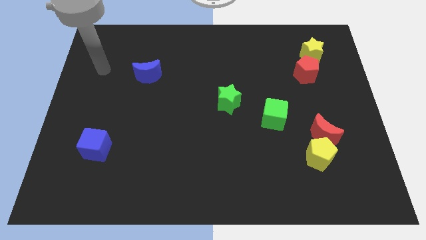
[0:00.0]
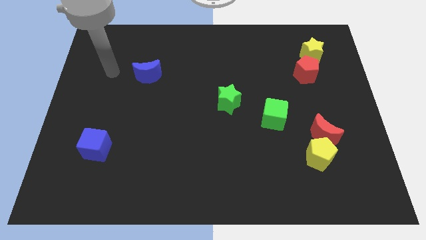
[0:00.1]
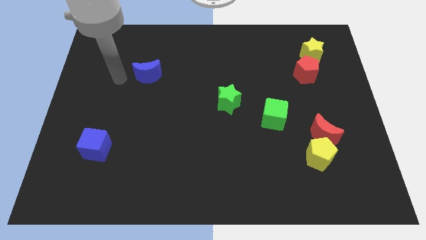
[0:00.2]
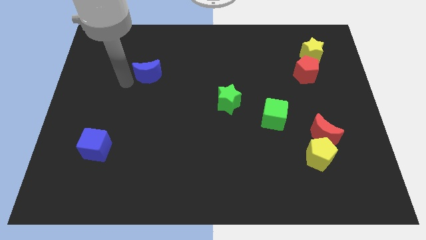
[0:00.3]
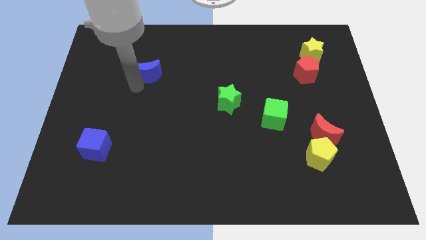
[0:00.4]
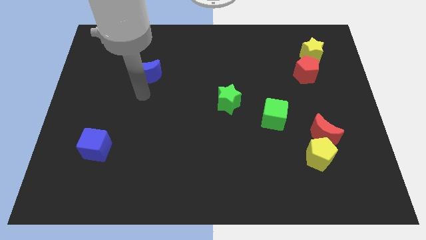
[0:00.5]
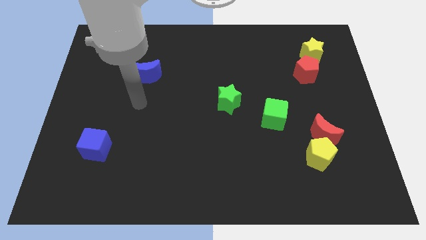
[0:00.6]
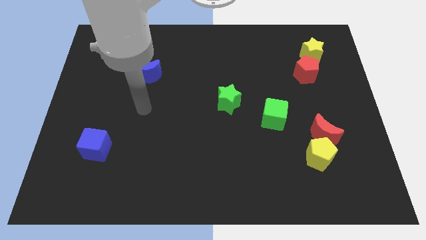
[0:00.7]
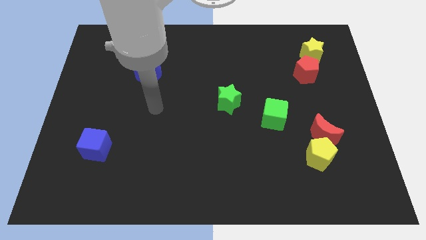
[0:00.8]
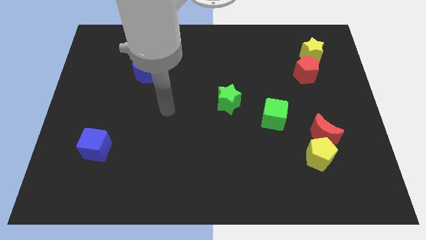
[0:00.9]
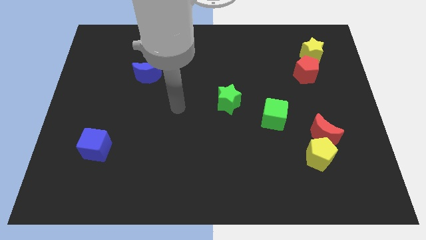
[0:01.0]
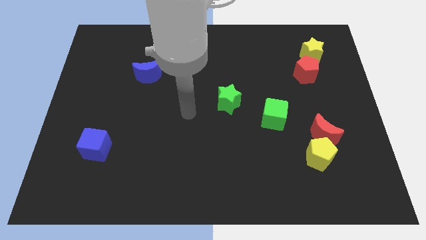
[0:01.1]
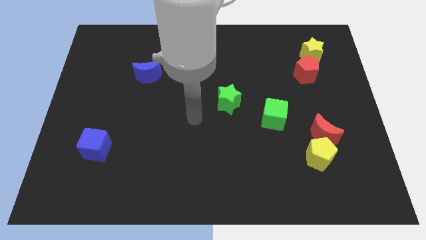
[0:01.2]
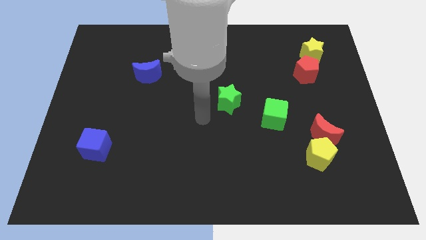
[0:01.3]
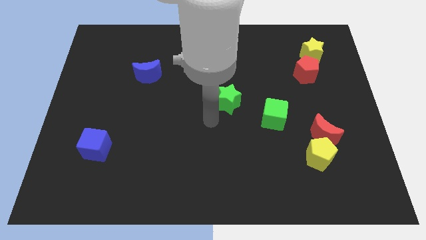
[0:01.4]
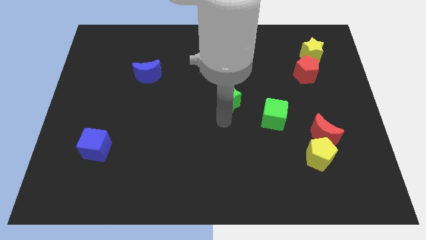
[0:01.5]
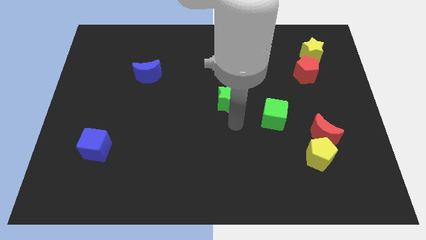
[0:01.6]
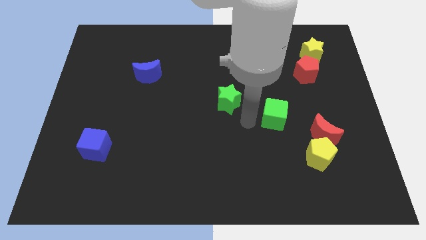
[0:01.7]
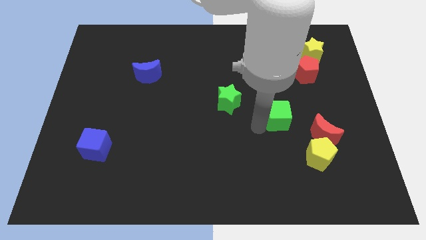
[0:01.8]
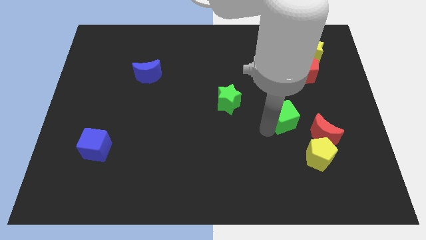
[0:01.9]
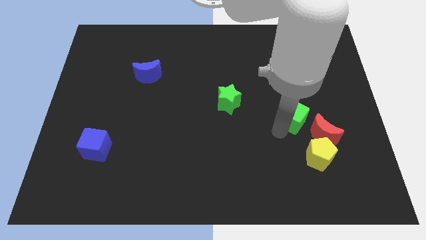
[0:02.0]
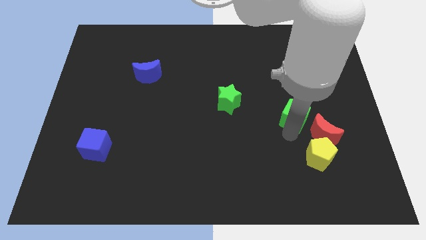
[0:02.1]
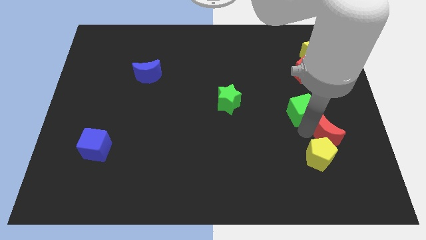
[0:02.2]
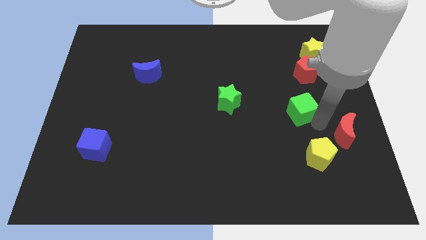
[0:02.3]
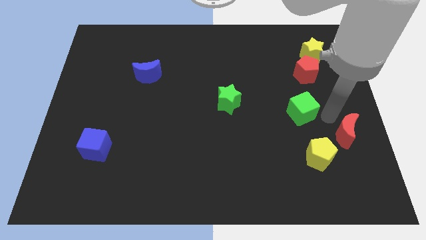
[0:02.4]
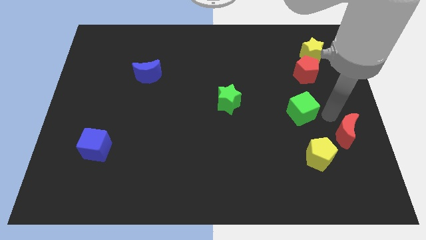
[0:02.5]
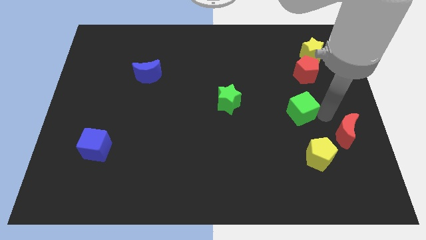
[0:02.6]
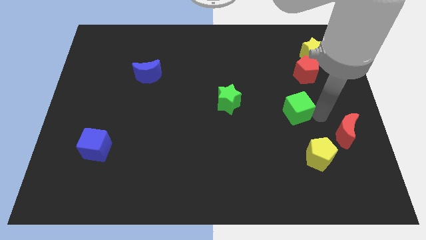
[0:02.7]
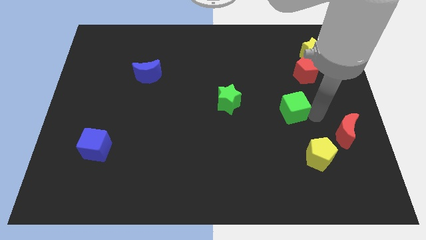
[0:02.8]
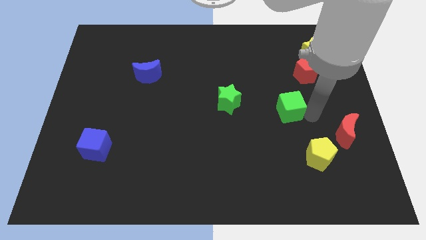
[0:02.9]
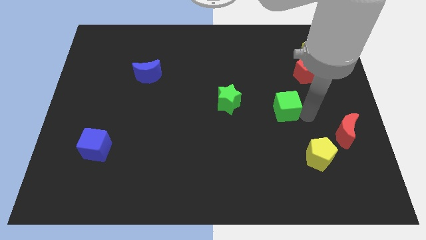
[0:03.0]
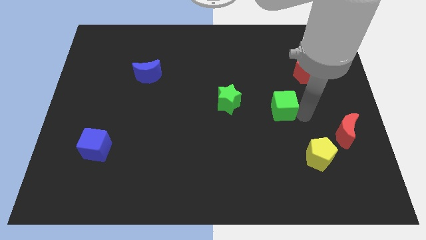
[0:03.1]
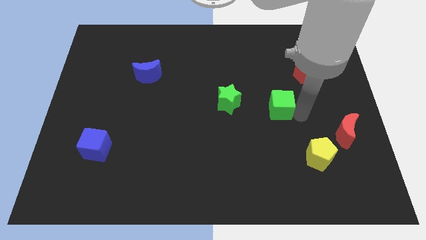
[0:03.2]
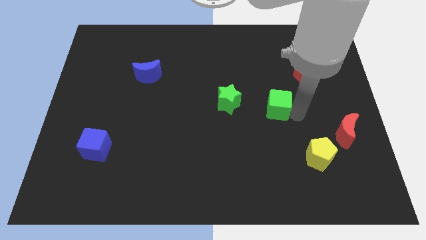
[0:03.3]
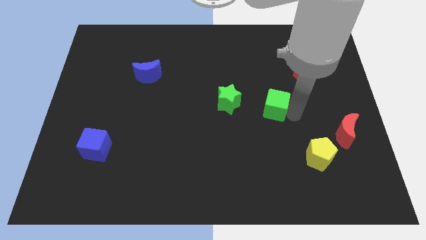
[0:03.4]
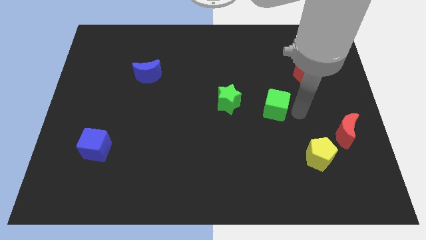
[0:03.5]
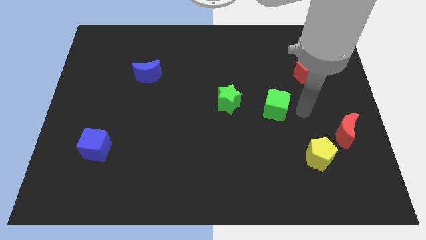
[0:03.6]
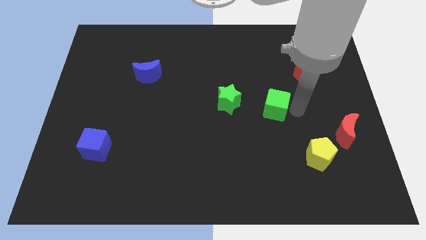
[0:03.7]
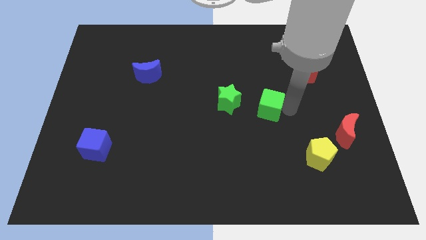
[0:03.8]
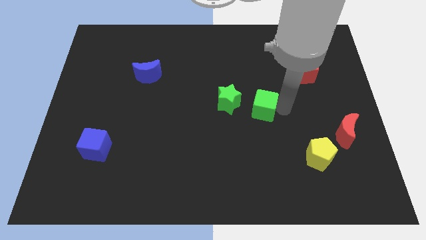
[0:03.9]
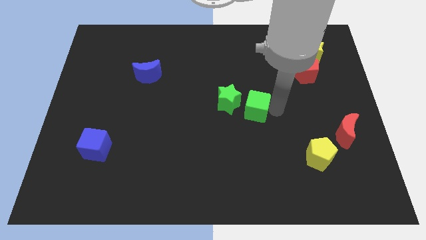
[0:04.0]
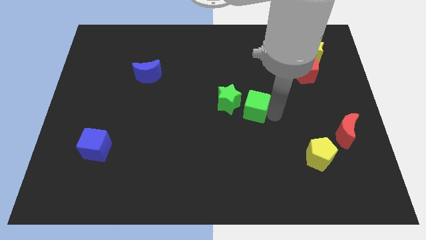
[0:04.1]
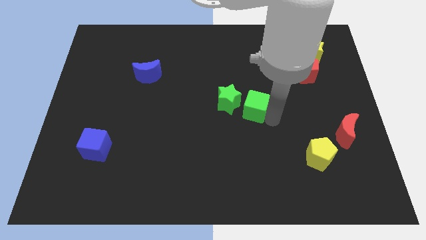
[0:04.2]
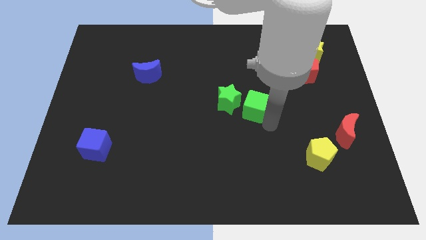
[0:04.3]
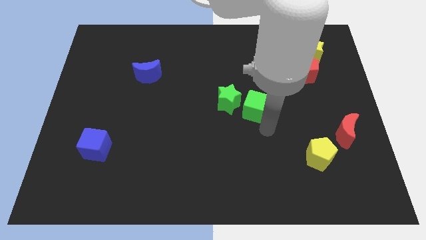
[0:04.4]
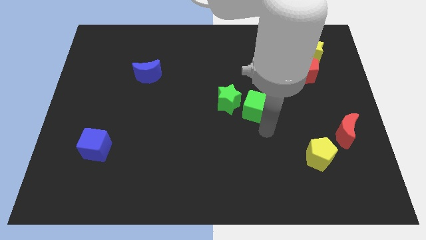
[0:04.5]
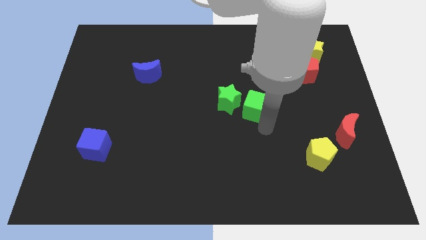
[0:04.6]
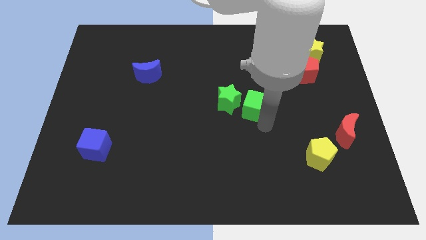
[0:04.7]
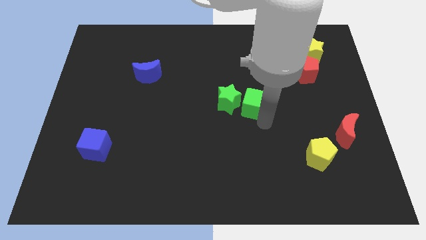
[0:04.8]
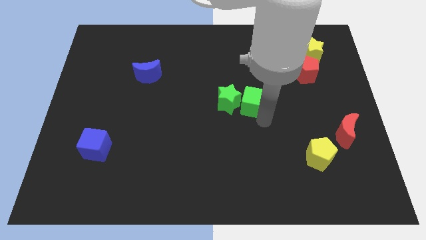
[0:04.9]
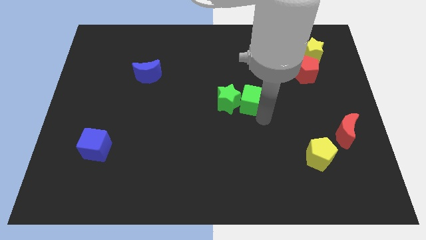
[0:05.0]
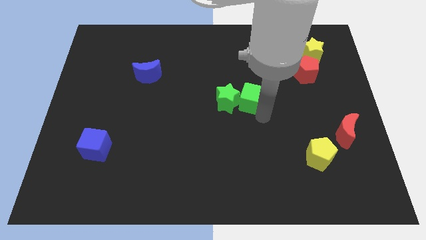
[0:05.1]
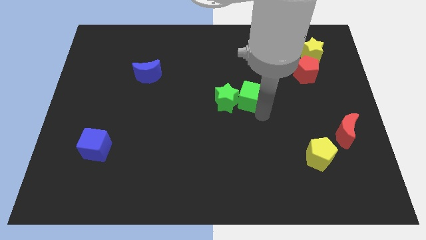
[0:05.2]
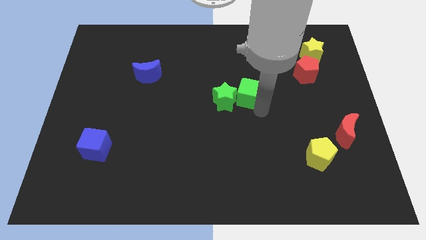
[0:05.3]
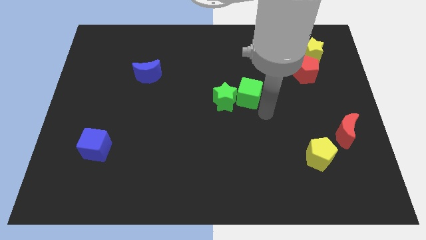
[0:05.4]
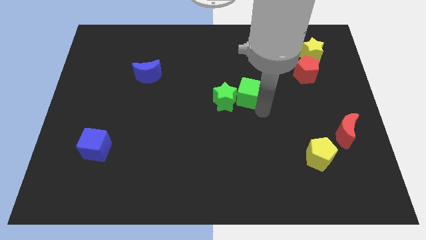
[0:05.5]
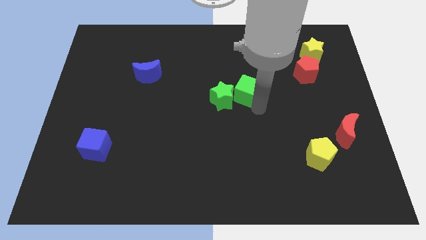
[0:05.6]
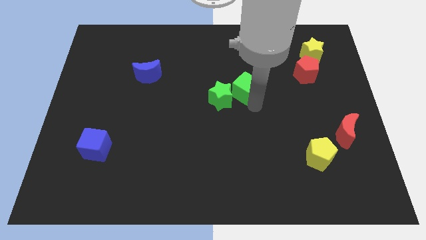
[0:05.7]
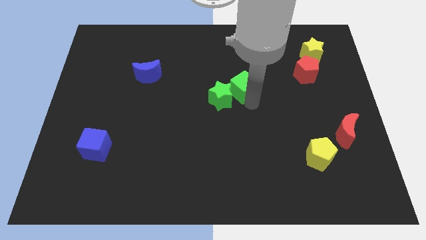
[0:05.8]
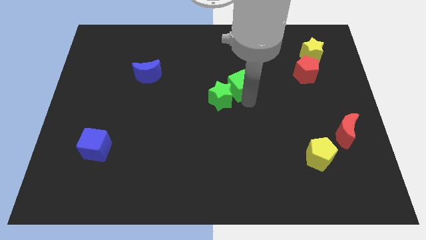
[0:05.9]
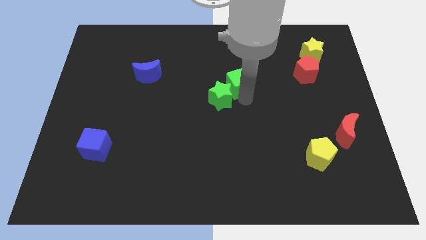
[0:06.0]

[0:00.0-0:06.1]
move the green cube to the top side of the green star

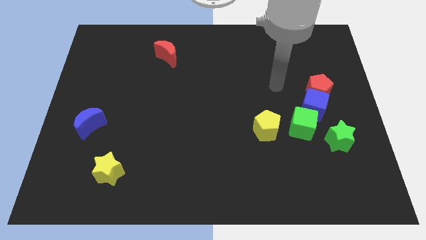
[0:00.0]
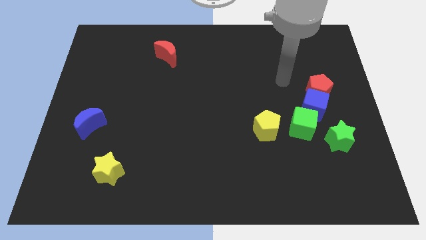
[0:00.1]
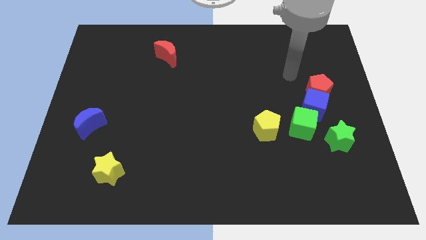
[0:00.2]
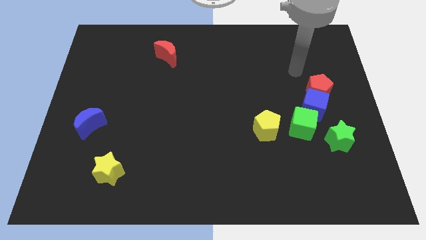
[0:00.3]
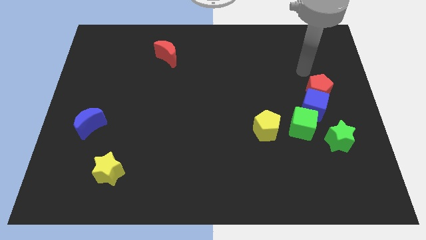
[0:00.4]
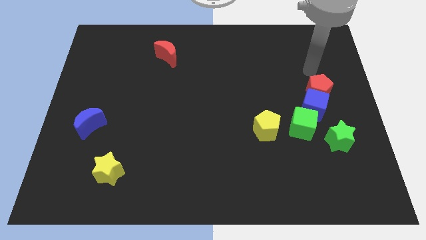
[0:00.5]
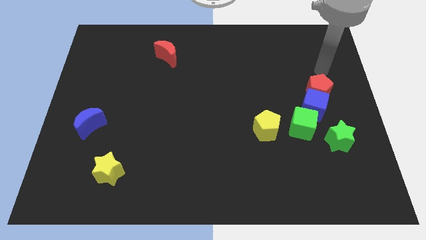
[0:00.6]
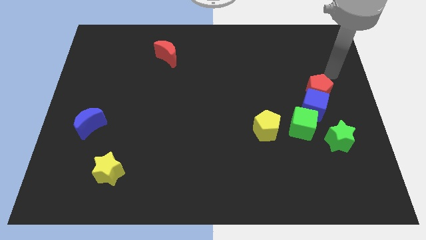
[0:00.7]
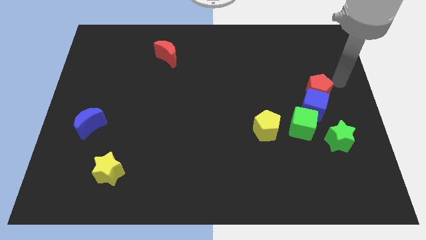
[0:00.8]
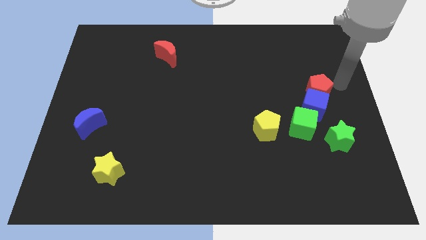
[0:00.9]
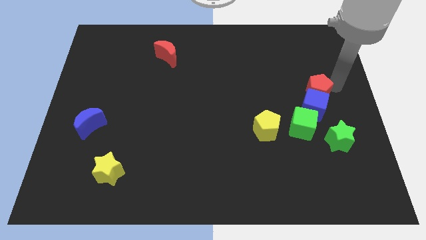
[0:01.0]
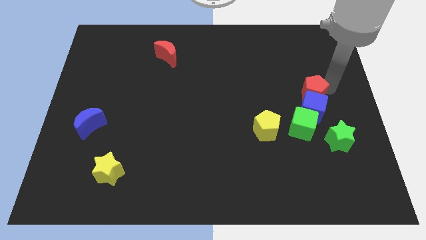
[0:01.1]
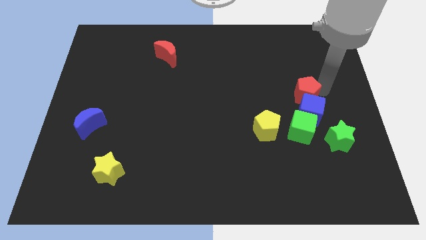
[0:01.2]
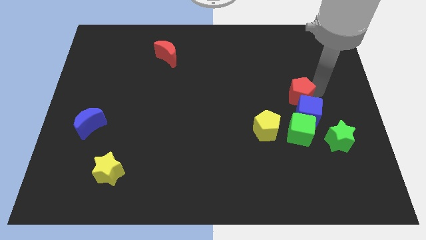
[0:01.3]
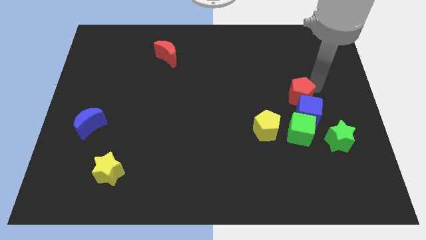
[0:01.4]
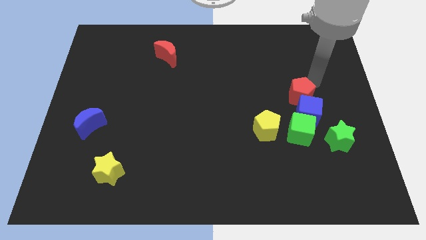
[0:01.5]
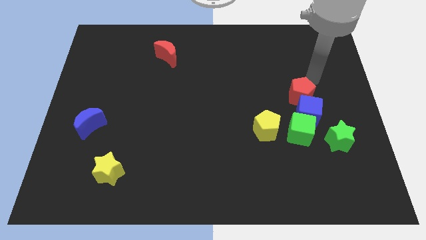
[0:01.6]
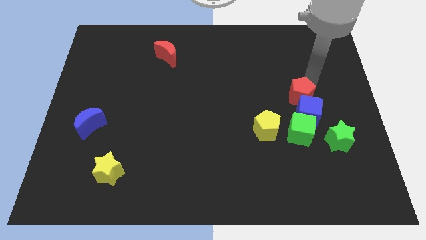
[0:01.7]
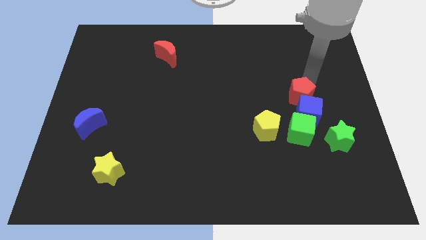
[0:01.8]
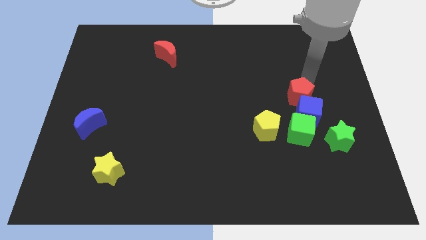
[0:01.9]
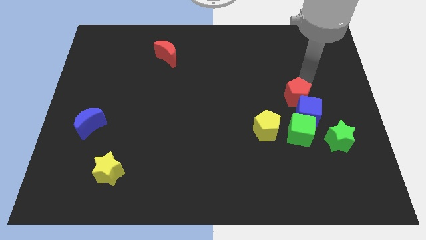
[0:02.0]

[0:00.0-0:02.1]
put the red pentagon to the top right of the yellow pentagon
